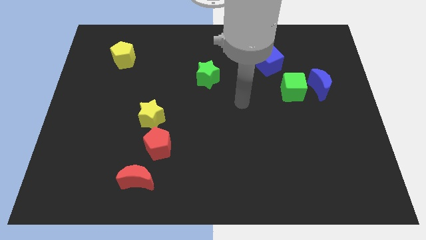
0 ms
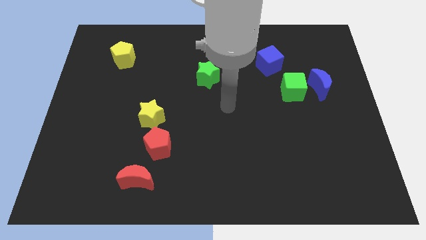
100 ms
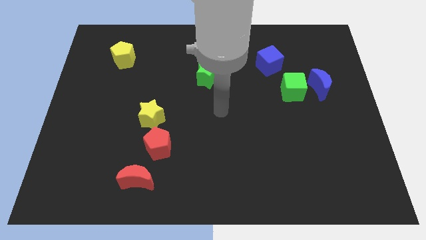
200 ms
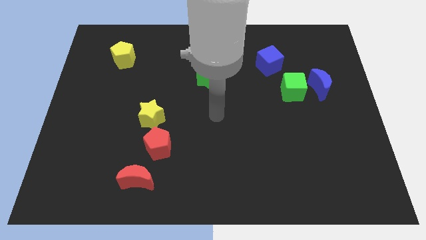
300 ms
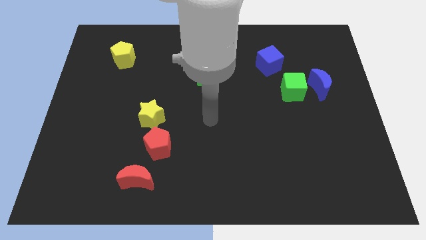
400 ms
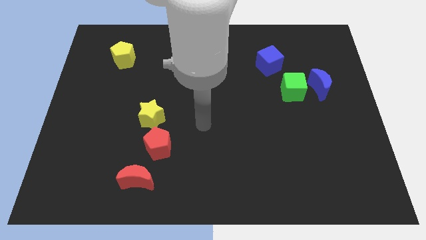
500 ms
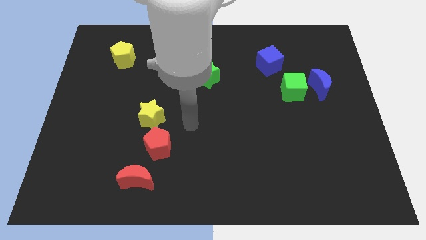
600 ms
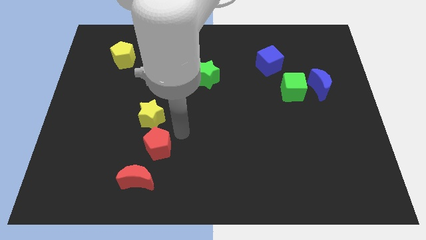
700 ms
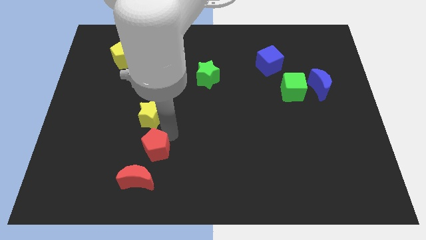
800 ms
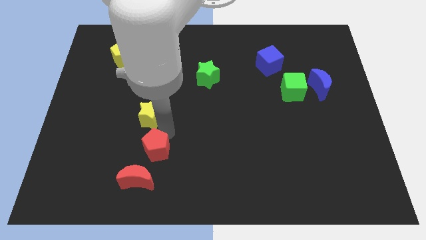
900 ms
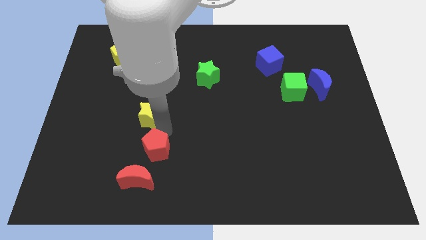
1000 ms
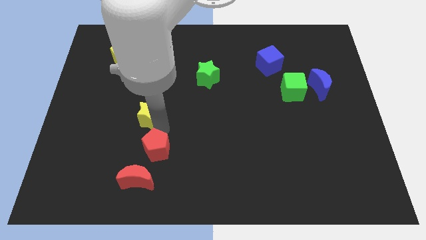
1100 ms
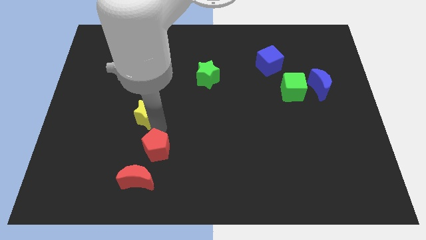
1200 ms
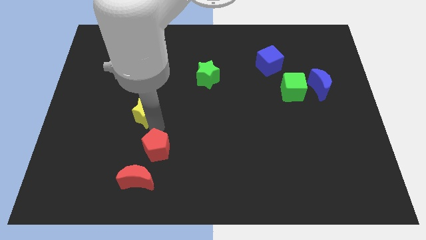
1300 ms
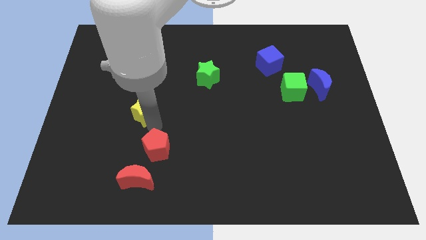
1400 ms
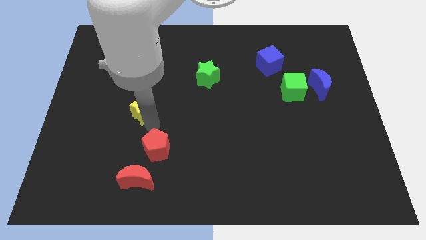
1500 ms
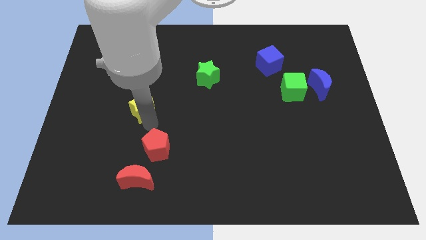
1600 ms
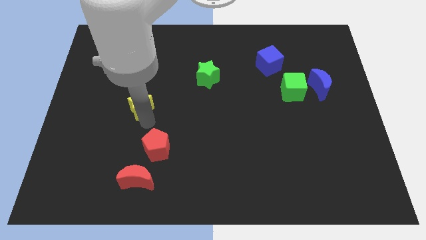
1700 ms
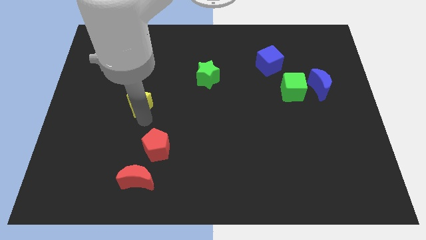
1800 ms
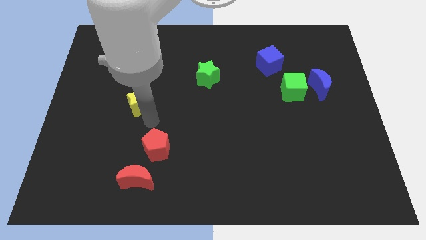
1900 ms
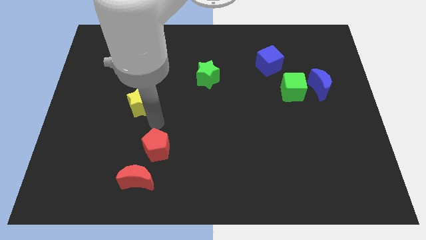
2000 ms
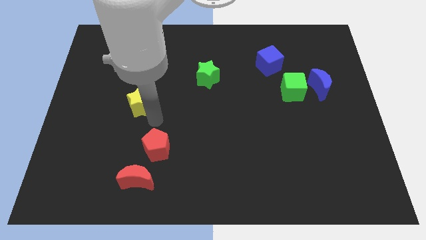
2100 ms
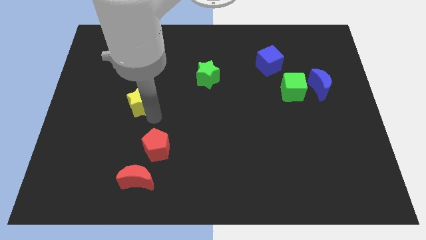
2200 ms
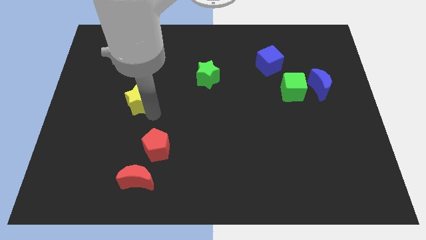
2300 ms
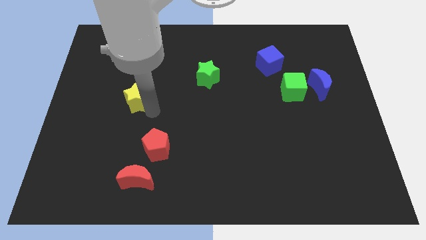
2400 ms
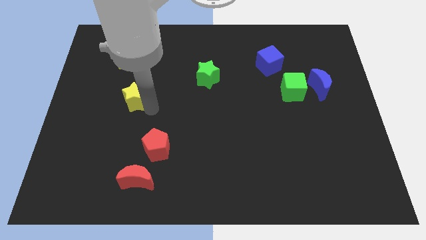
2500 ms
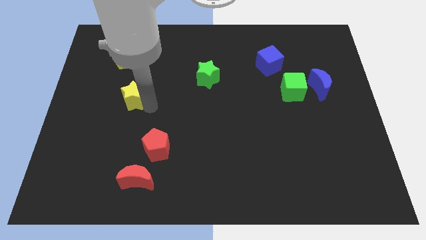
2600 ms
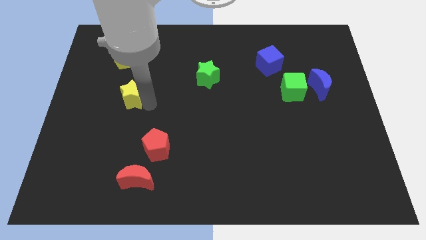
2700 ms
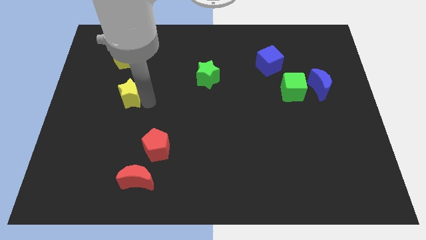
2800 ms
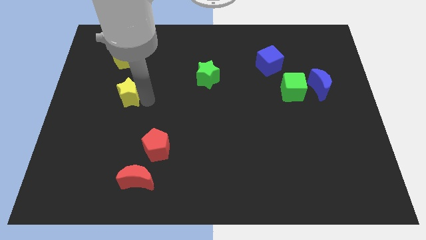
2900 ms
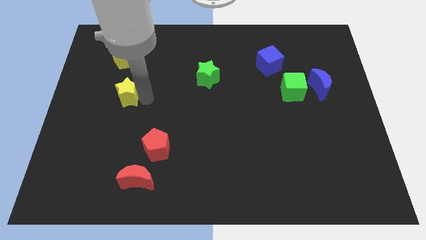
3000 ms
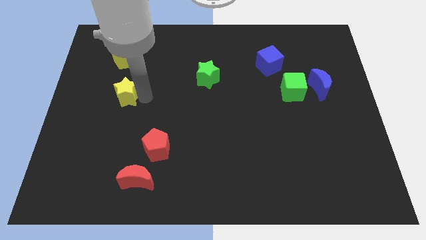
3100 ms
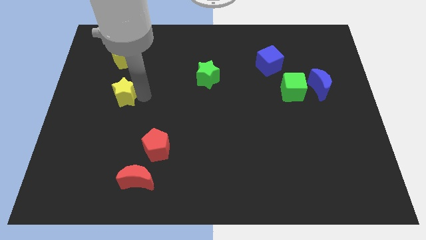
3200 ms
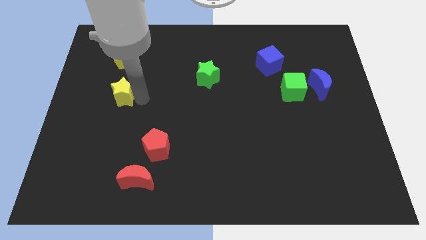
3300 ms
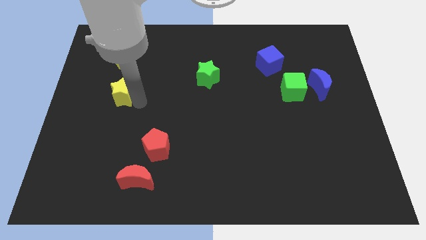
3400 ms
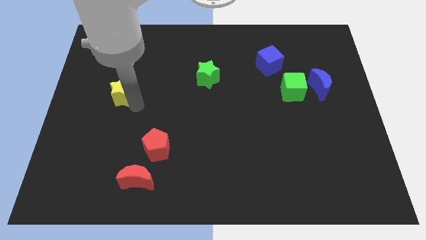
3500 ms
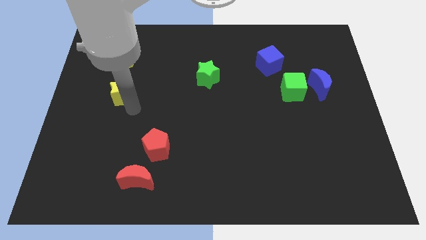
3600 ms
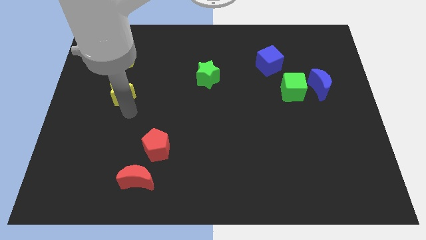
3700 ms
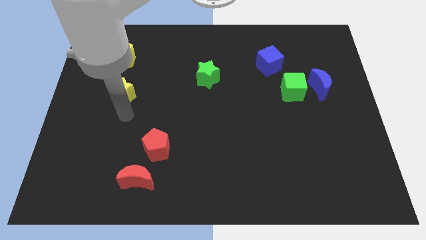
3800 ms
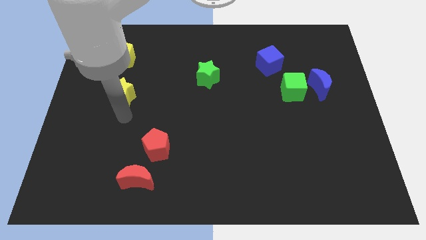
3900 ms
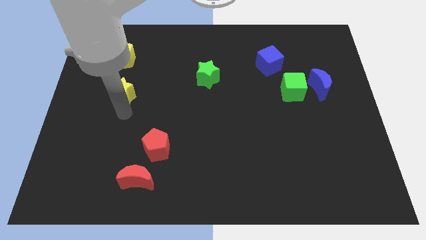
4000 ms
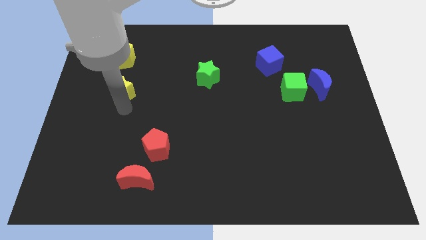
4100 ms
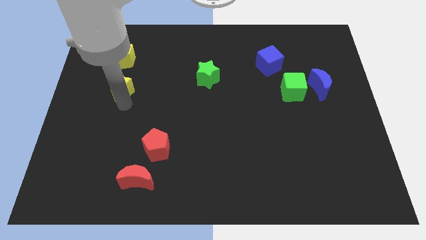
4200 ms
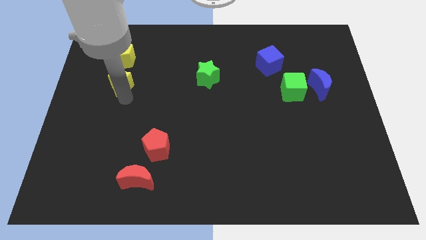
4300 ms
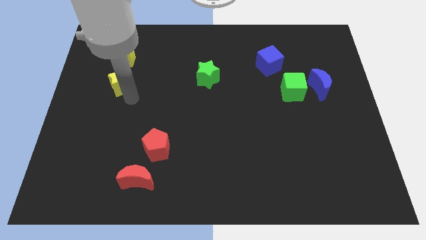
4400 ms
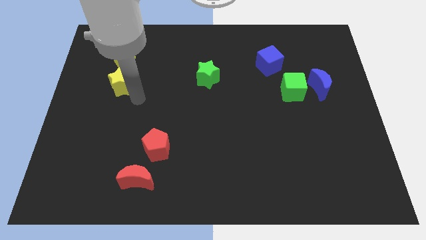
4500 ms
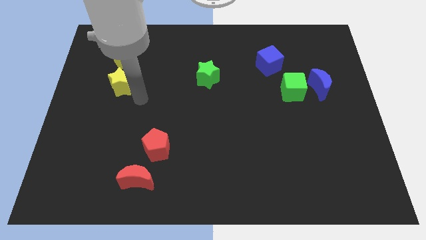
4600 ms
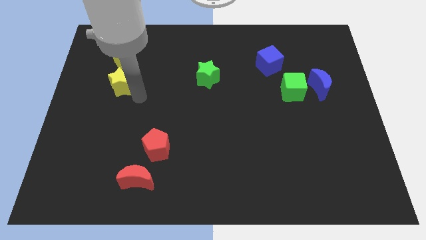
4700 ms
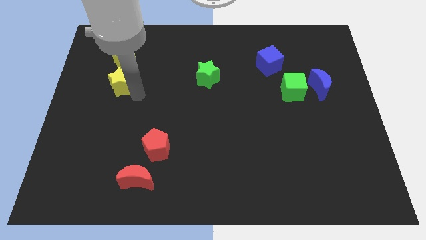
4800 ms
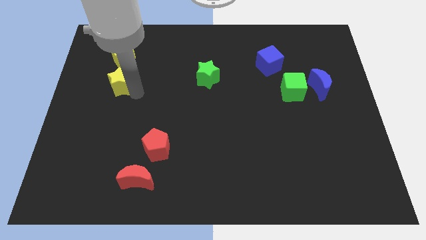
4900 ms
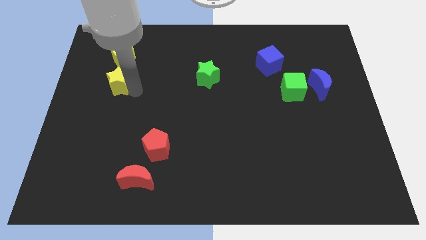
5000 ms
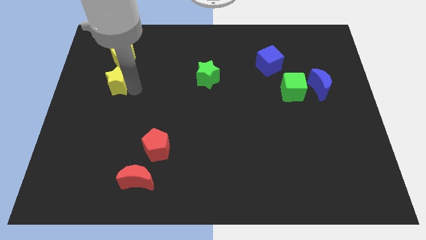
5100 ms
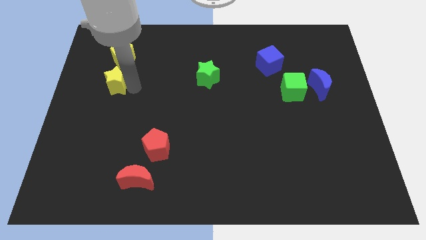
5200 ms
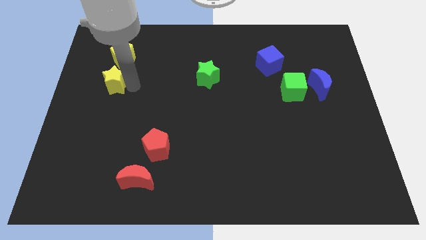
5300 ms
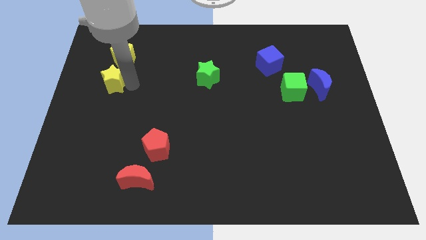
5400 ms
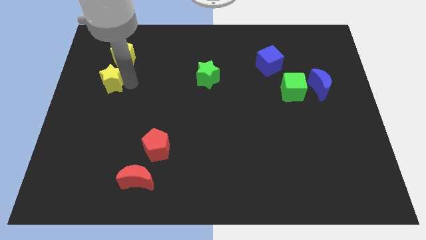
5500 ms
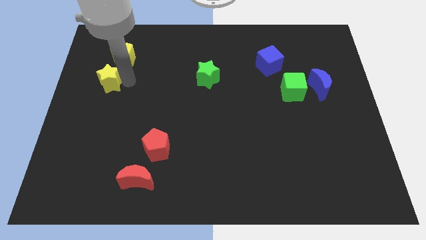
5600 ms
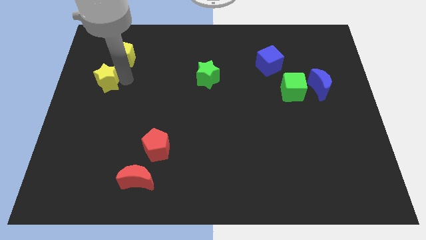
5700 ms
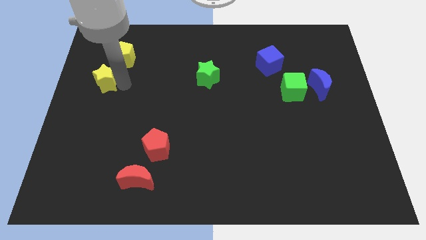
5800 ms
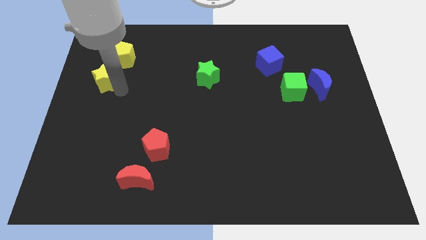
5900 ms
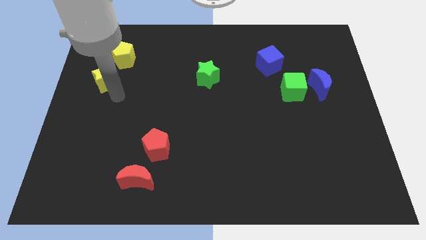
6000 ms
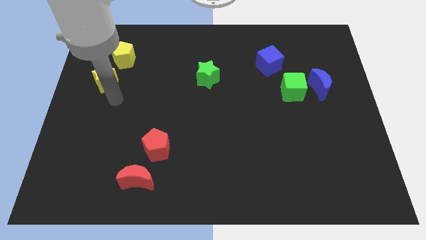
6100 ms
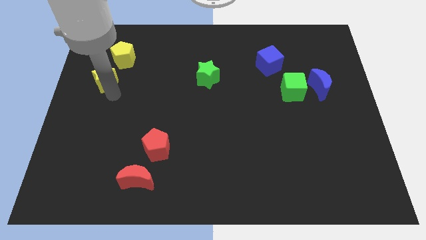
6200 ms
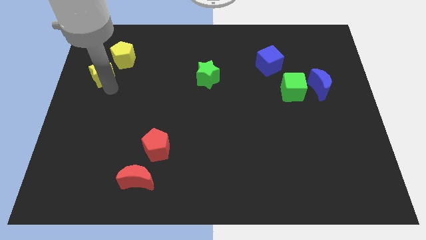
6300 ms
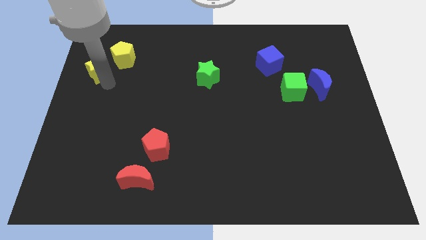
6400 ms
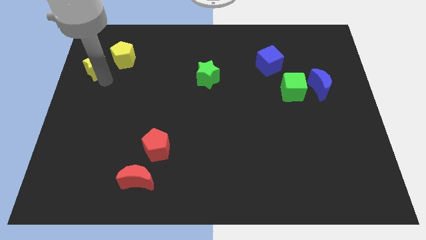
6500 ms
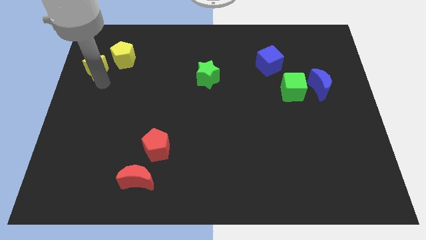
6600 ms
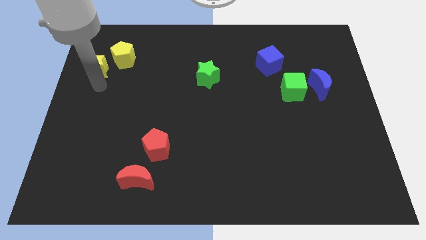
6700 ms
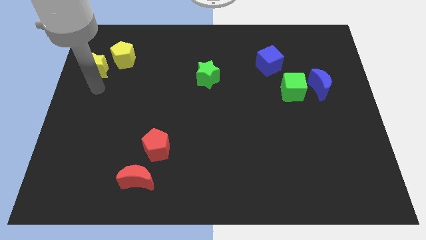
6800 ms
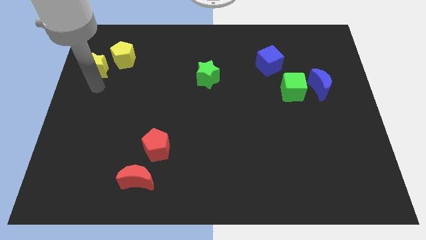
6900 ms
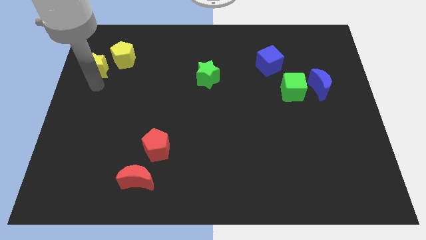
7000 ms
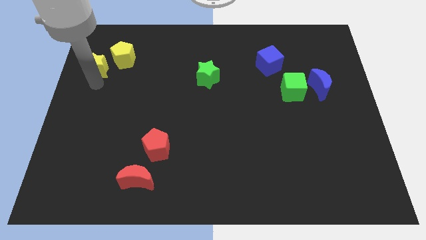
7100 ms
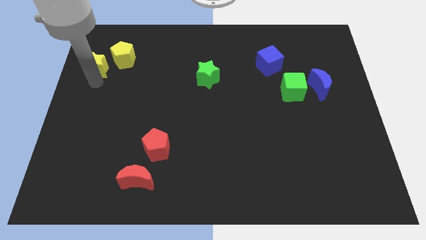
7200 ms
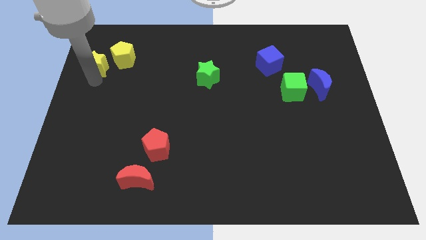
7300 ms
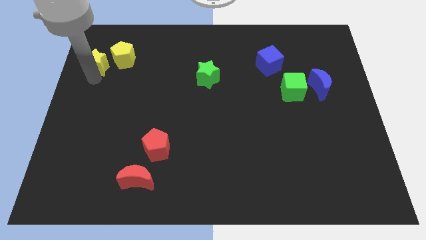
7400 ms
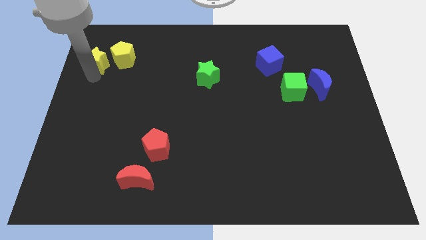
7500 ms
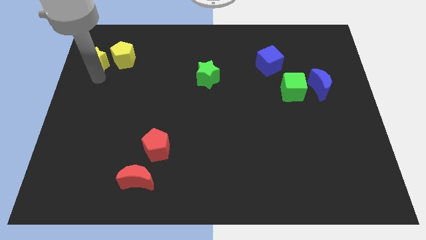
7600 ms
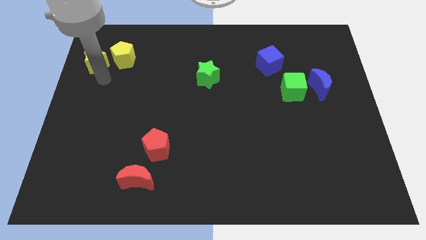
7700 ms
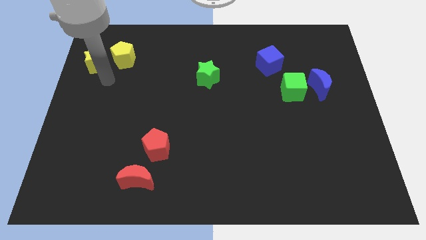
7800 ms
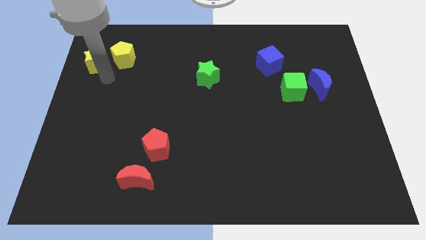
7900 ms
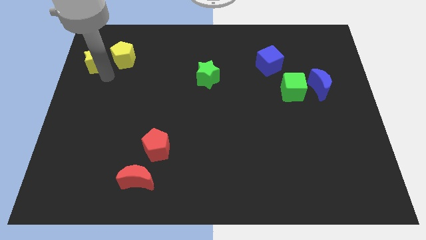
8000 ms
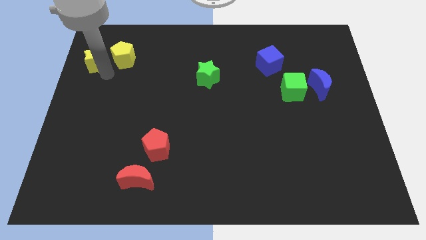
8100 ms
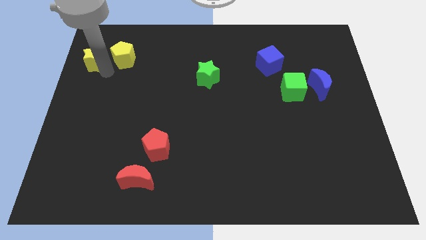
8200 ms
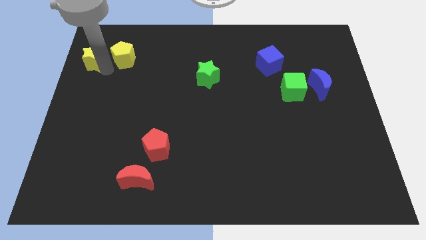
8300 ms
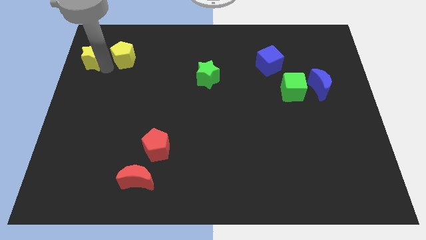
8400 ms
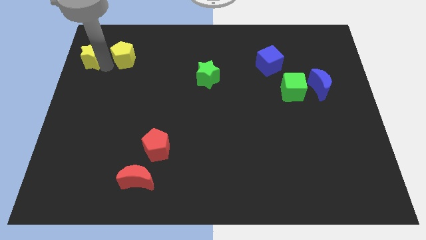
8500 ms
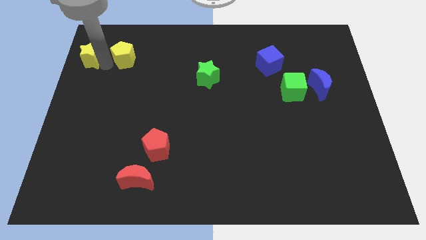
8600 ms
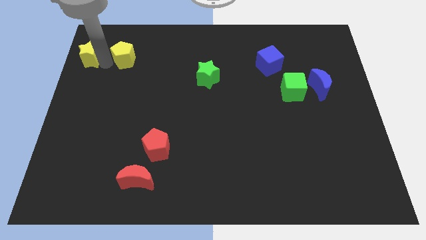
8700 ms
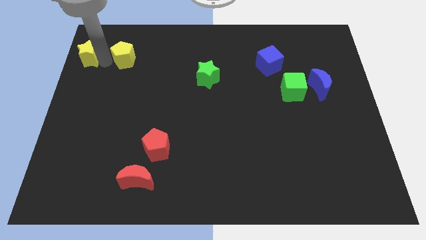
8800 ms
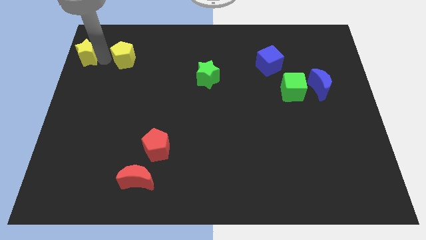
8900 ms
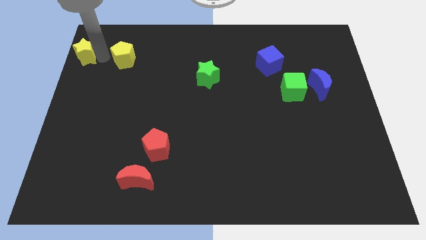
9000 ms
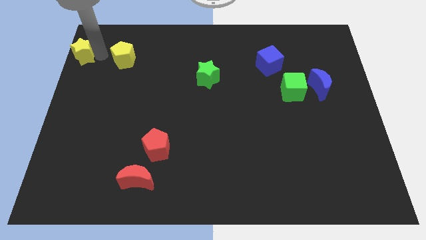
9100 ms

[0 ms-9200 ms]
move the yellow star to the top left
